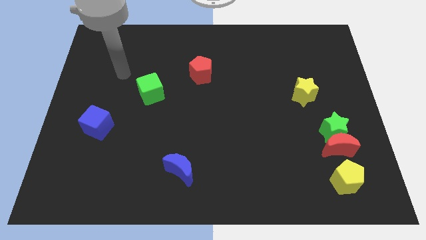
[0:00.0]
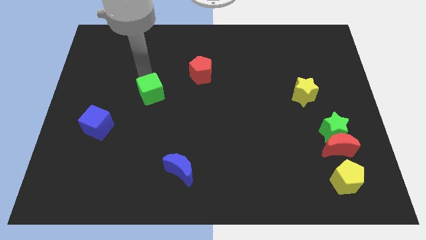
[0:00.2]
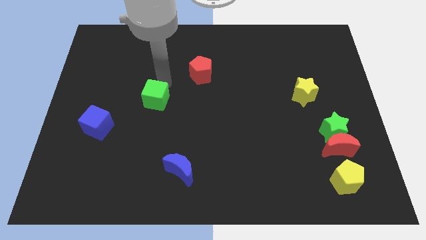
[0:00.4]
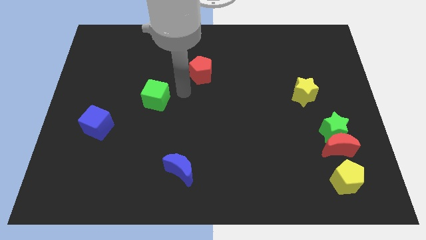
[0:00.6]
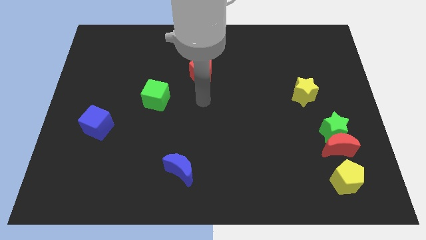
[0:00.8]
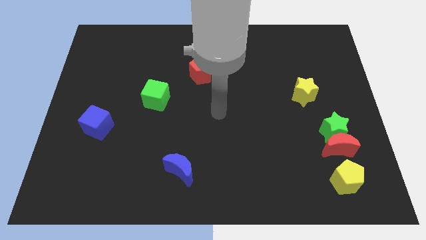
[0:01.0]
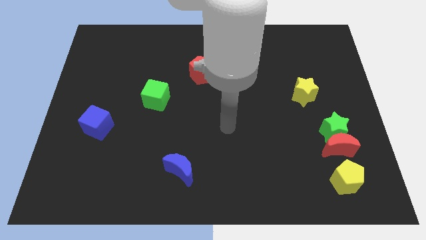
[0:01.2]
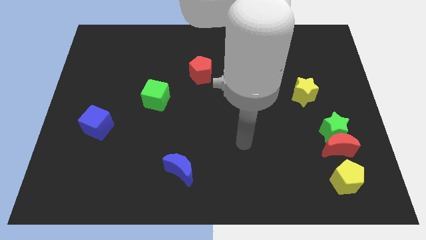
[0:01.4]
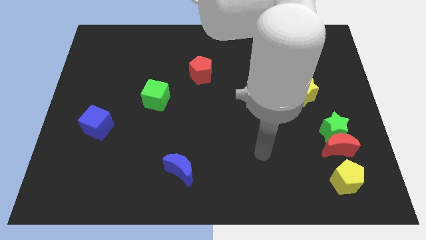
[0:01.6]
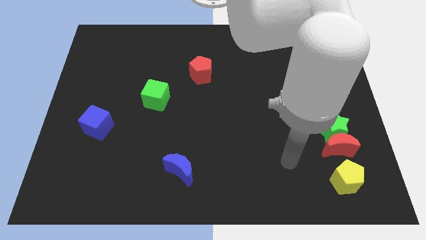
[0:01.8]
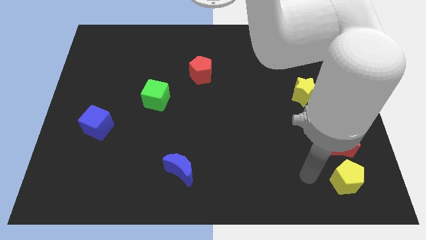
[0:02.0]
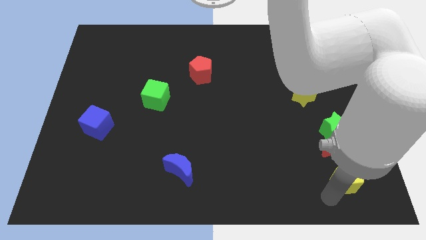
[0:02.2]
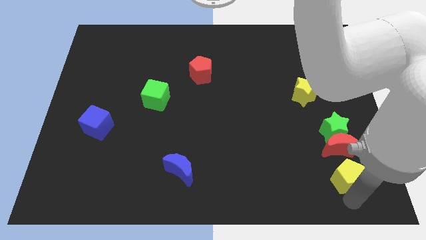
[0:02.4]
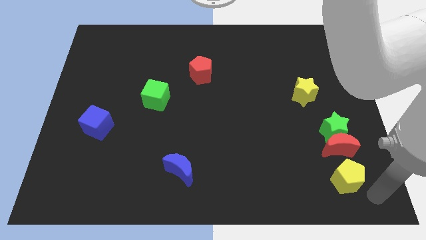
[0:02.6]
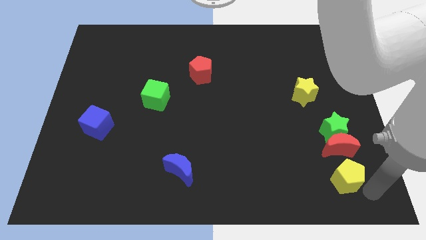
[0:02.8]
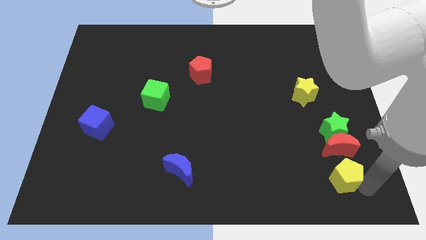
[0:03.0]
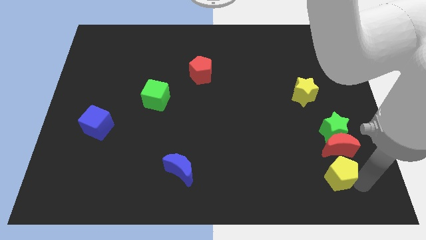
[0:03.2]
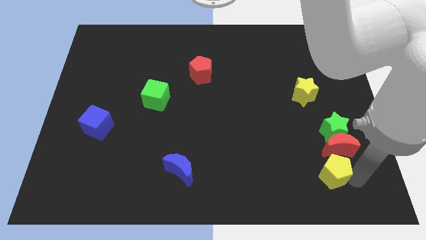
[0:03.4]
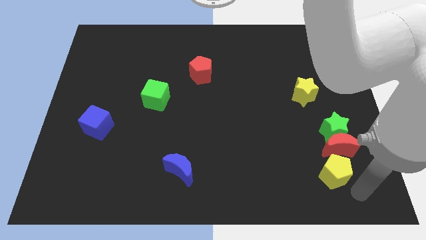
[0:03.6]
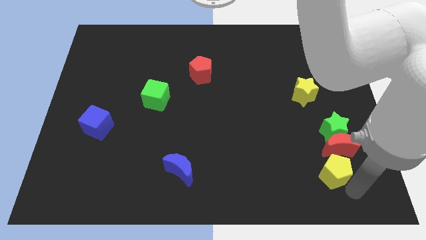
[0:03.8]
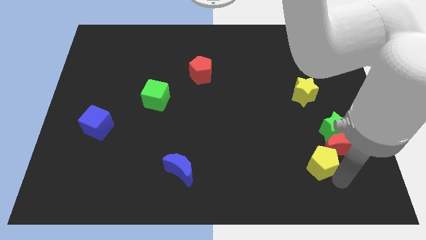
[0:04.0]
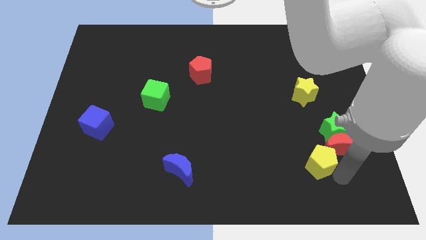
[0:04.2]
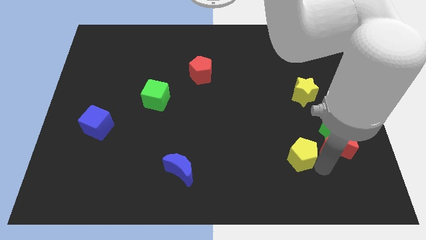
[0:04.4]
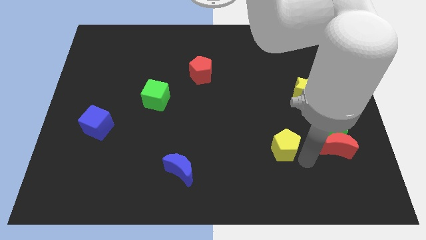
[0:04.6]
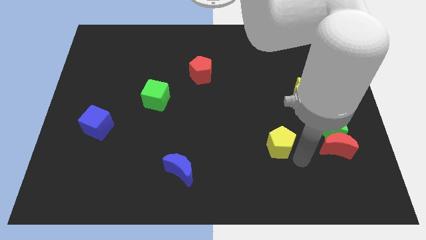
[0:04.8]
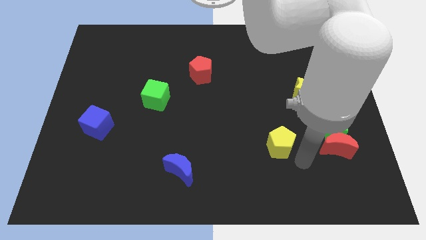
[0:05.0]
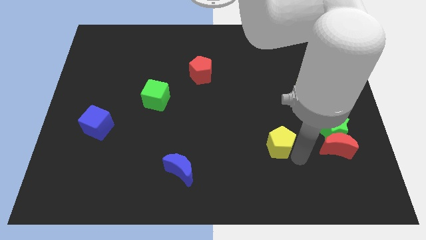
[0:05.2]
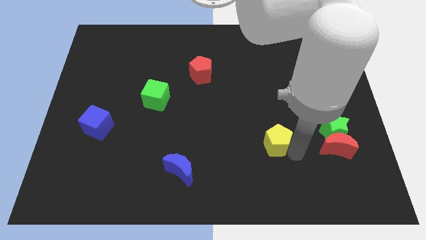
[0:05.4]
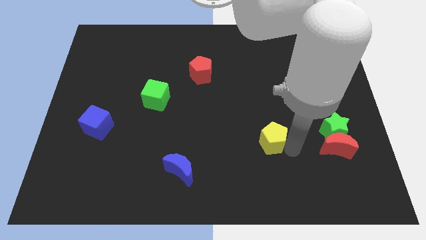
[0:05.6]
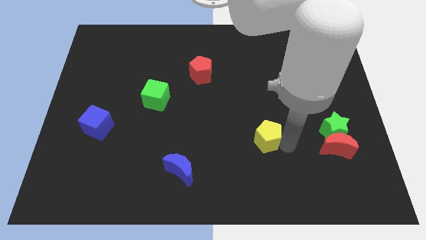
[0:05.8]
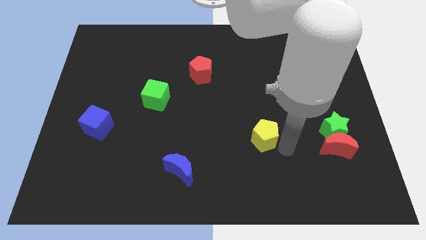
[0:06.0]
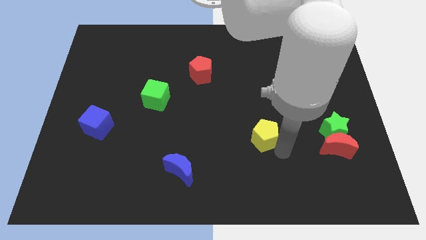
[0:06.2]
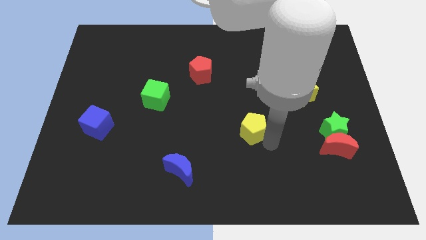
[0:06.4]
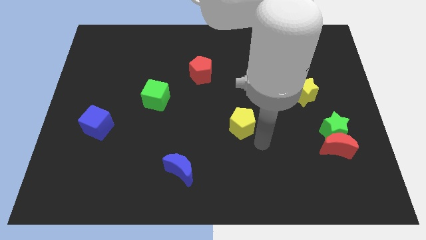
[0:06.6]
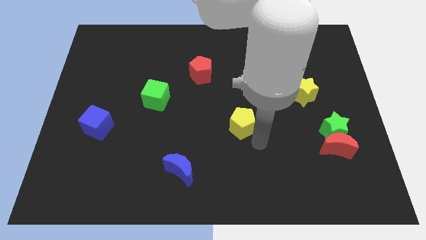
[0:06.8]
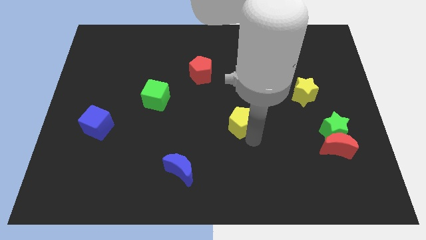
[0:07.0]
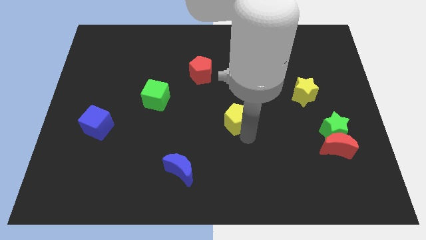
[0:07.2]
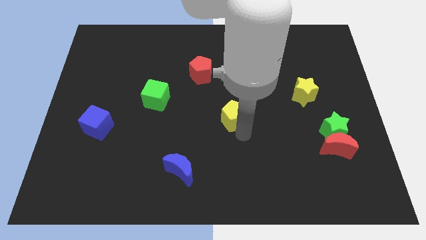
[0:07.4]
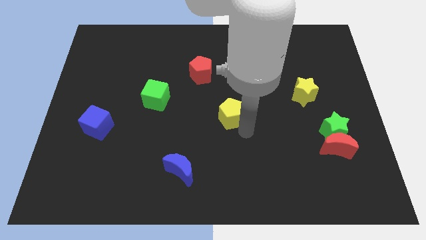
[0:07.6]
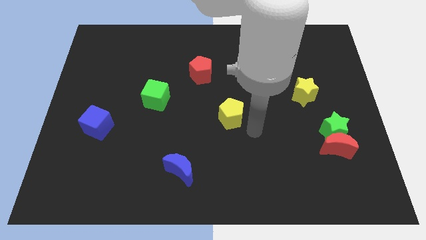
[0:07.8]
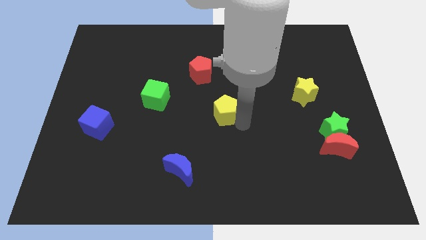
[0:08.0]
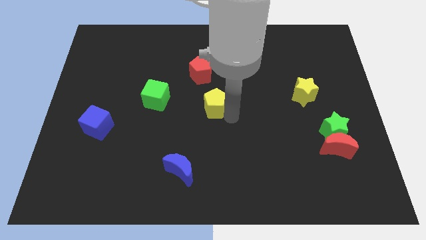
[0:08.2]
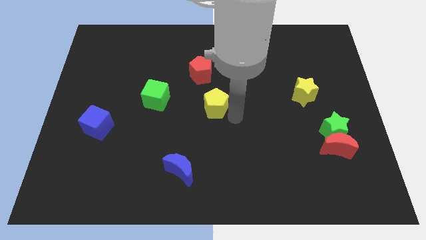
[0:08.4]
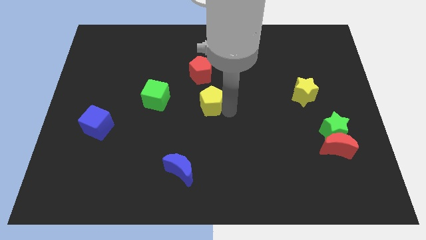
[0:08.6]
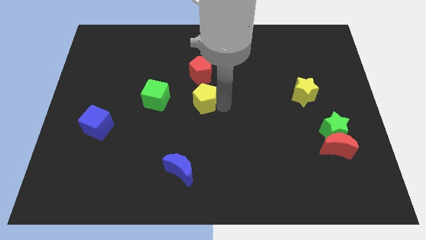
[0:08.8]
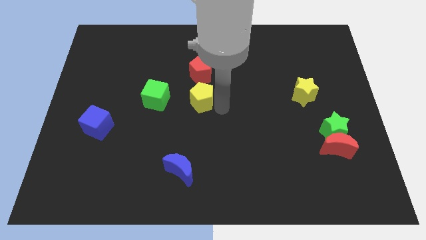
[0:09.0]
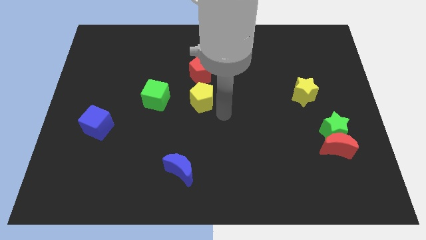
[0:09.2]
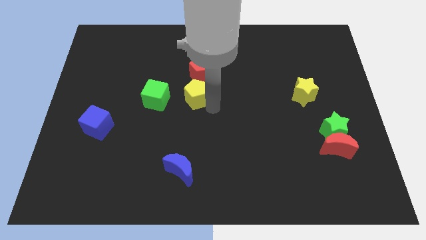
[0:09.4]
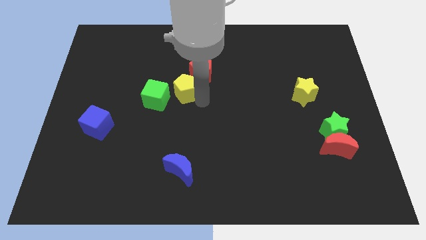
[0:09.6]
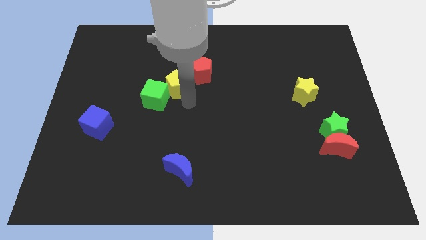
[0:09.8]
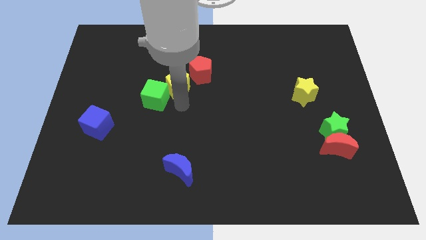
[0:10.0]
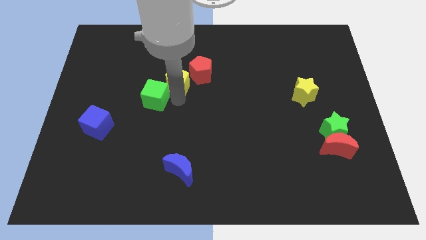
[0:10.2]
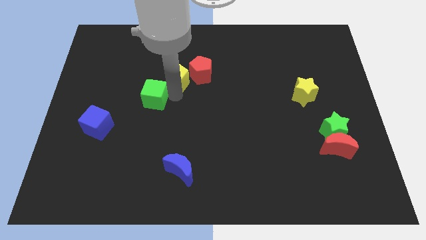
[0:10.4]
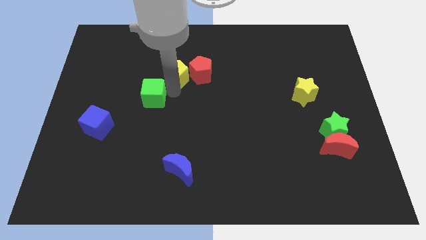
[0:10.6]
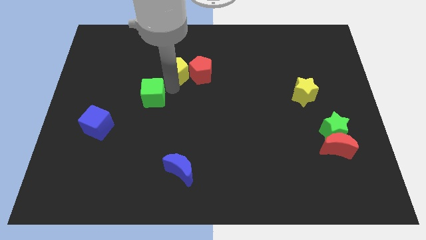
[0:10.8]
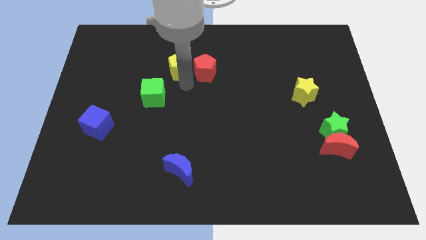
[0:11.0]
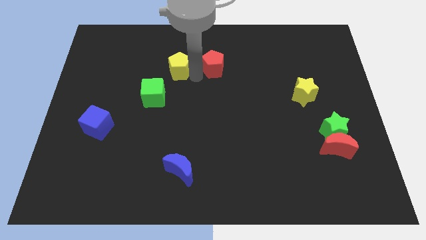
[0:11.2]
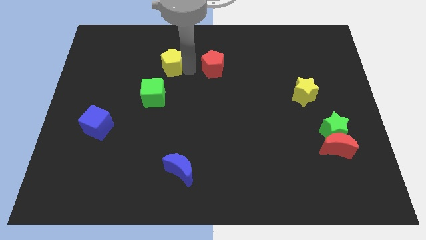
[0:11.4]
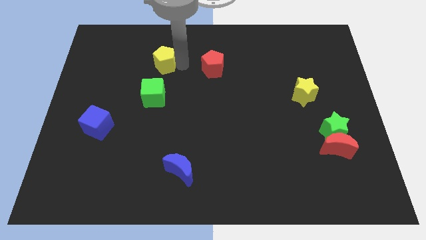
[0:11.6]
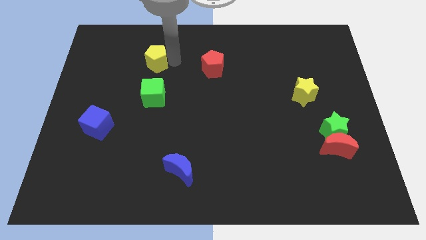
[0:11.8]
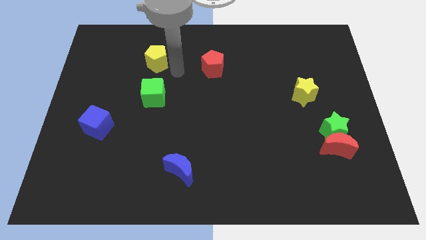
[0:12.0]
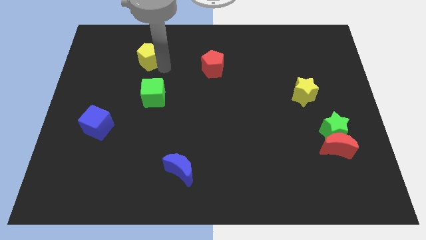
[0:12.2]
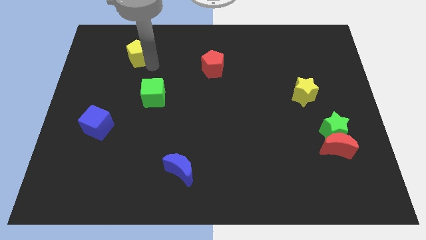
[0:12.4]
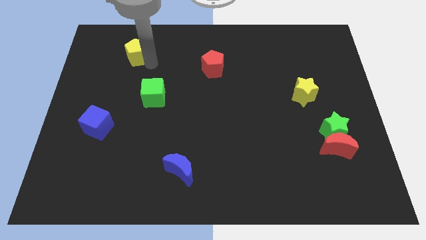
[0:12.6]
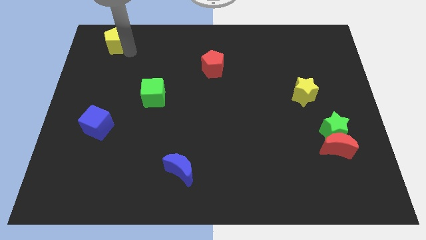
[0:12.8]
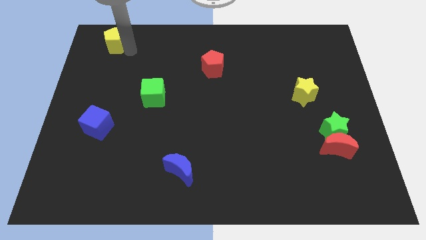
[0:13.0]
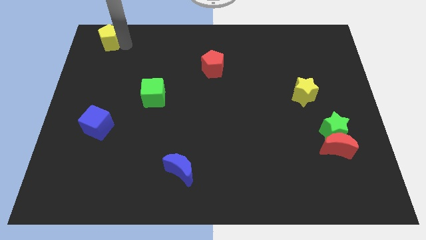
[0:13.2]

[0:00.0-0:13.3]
push the yellow pentagon to the upper left corner
